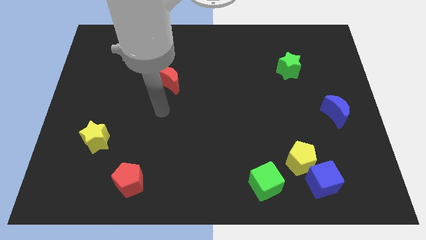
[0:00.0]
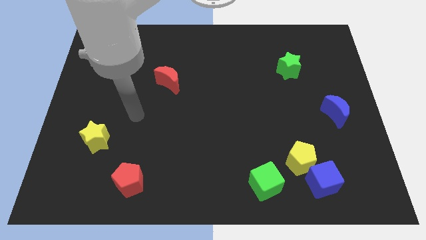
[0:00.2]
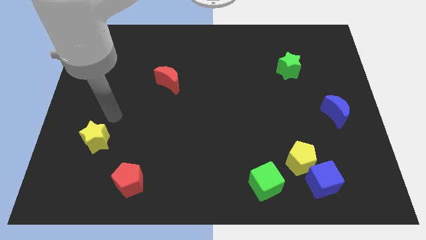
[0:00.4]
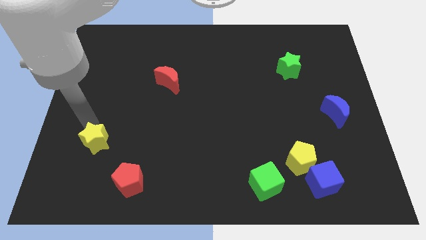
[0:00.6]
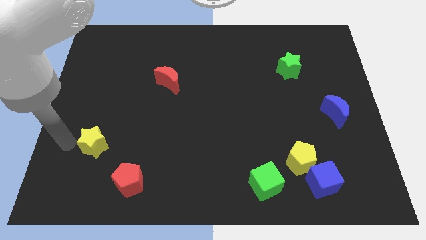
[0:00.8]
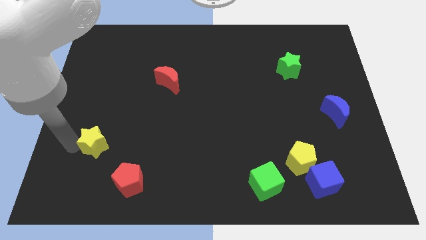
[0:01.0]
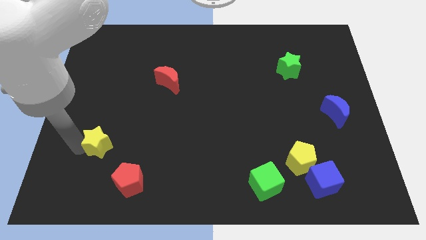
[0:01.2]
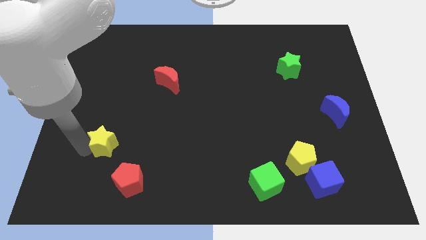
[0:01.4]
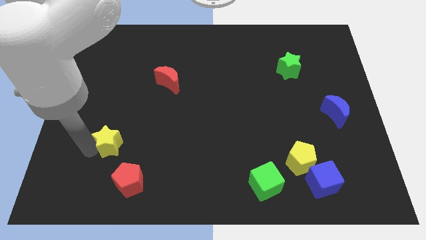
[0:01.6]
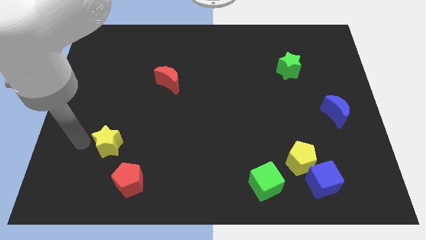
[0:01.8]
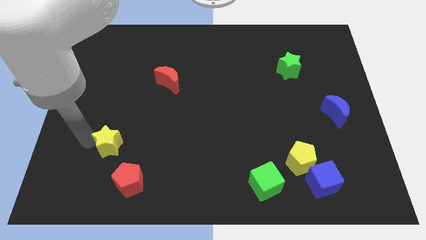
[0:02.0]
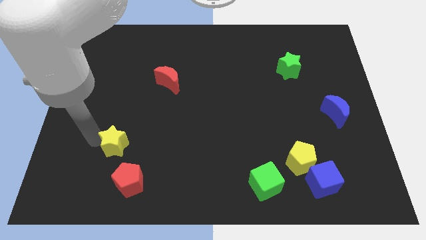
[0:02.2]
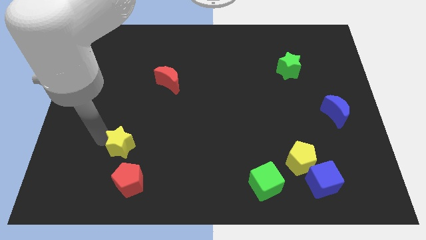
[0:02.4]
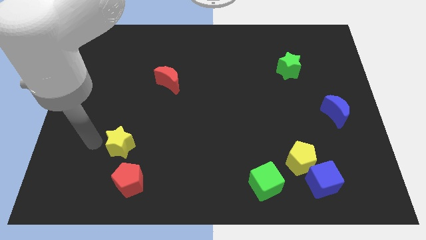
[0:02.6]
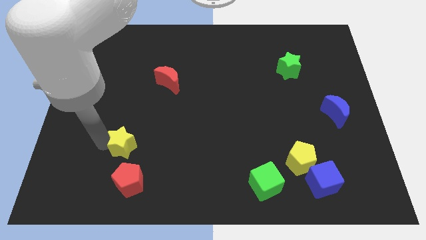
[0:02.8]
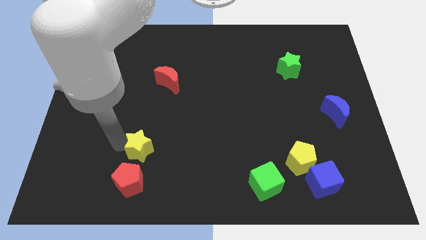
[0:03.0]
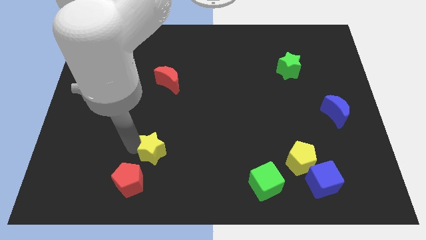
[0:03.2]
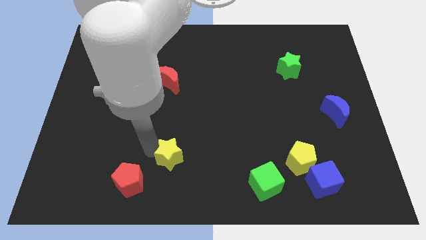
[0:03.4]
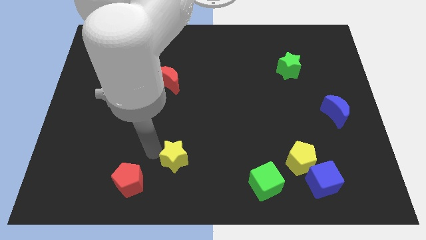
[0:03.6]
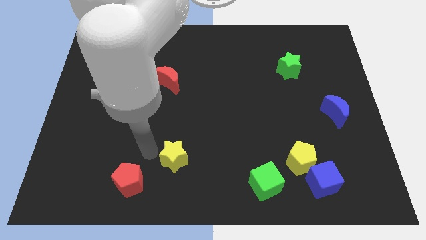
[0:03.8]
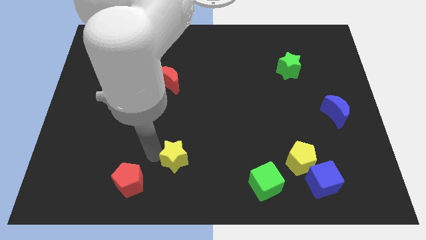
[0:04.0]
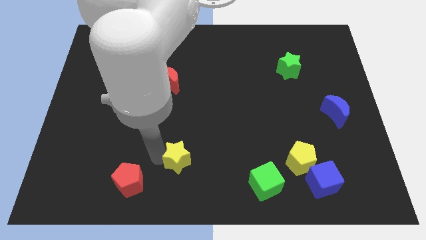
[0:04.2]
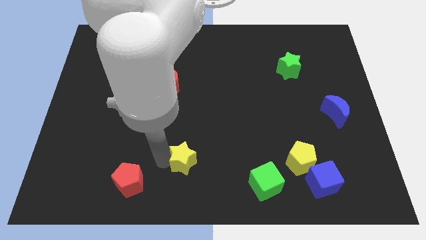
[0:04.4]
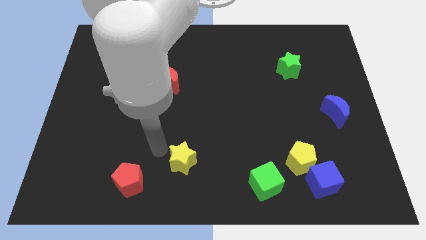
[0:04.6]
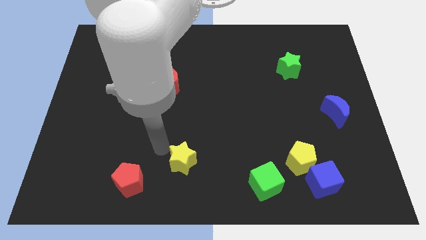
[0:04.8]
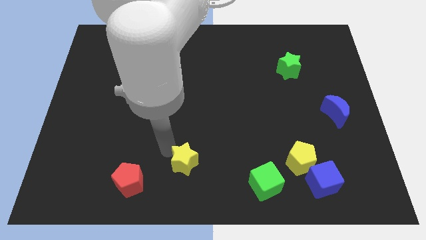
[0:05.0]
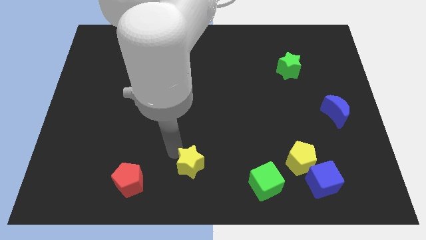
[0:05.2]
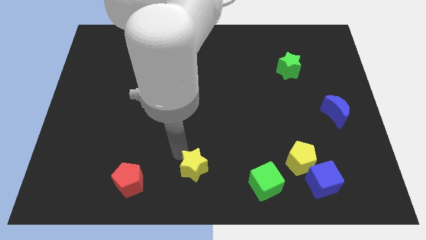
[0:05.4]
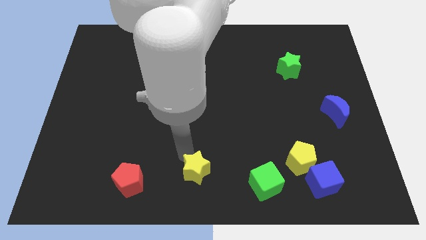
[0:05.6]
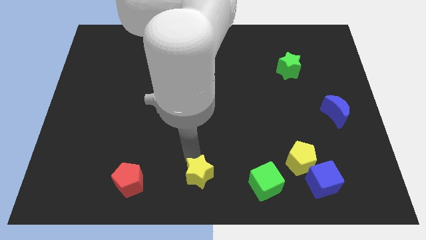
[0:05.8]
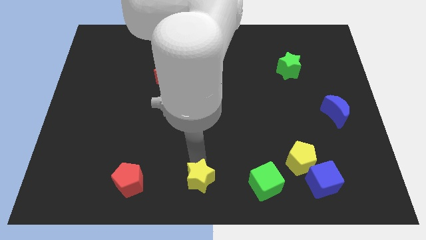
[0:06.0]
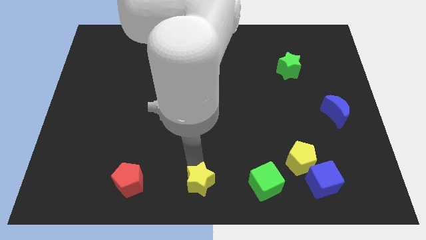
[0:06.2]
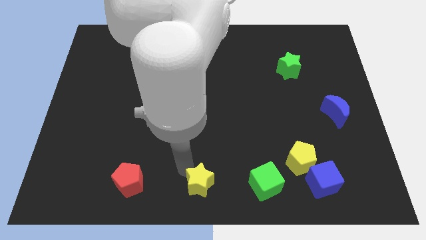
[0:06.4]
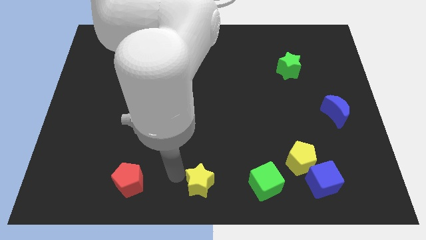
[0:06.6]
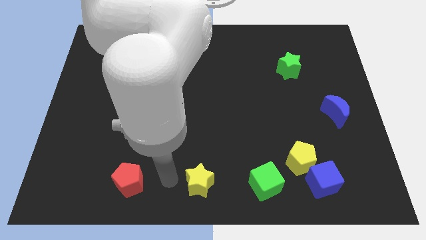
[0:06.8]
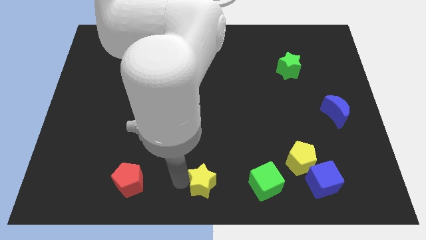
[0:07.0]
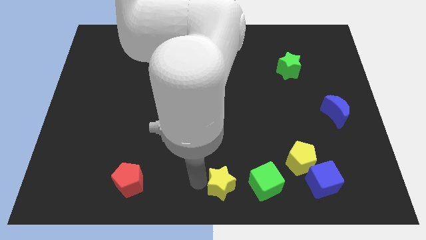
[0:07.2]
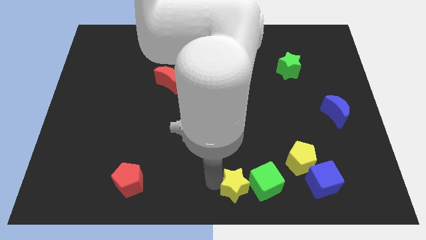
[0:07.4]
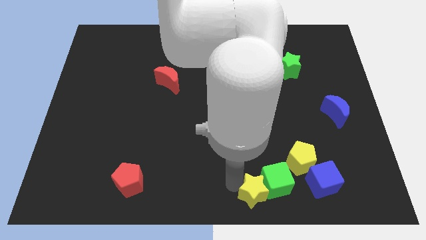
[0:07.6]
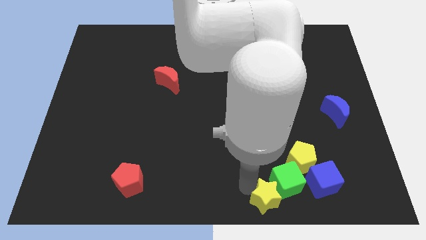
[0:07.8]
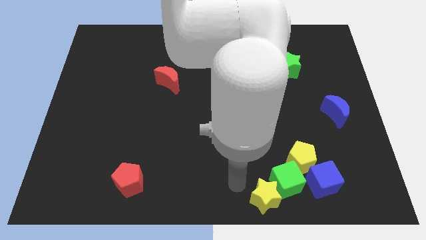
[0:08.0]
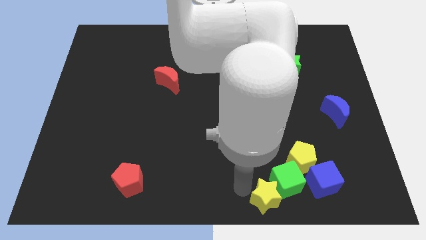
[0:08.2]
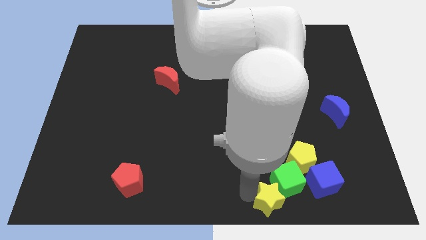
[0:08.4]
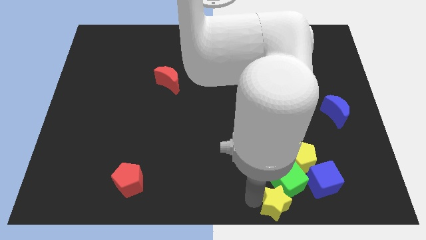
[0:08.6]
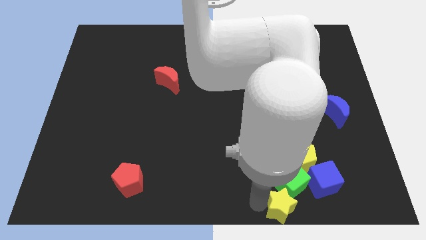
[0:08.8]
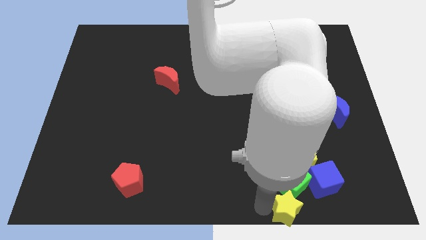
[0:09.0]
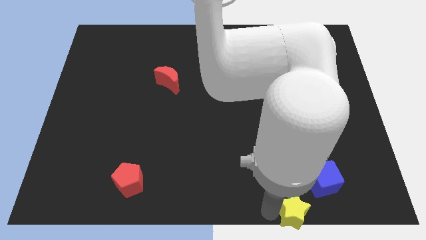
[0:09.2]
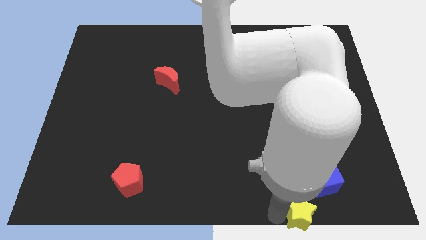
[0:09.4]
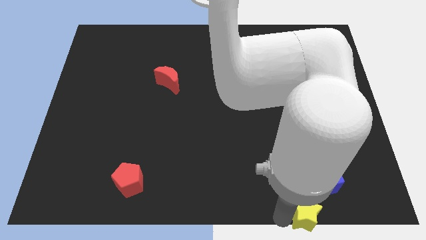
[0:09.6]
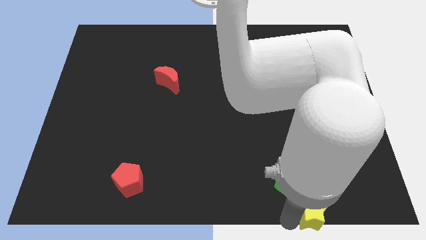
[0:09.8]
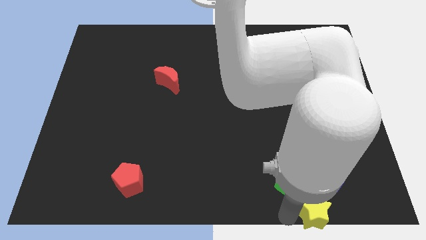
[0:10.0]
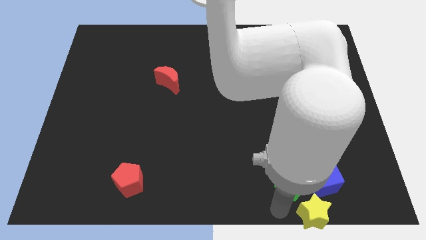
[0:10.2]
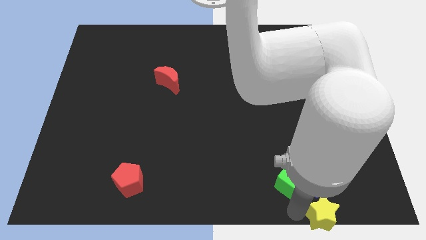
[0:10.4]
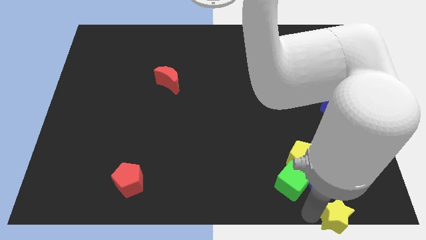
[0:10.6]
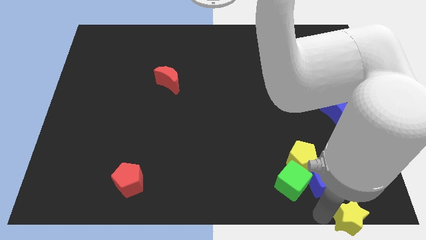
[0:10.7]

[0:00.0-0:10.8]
put the yellow star to the bottom right of the board
